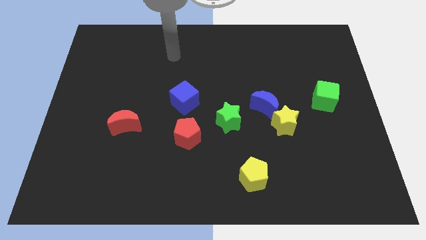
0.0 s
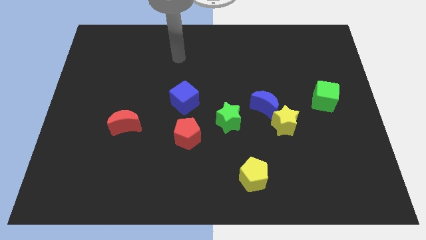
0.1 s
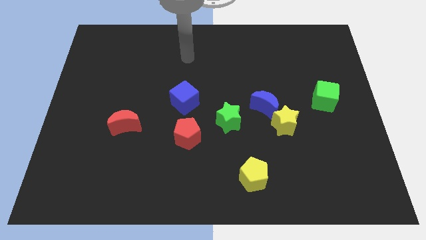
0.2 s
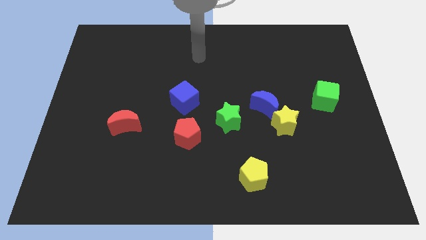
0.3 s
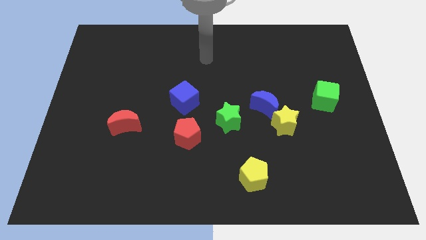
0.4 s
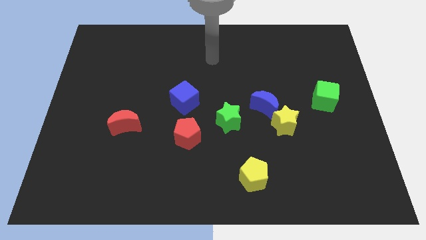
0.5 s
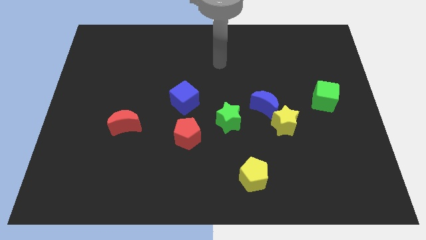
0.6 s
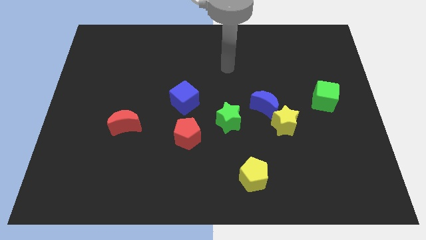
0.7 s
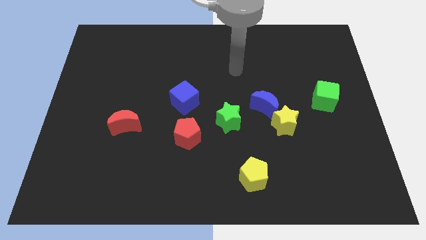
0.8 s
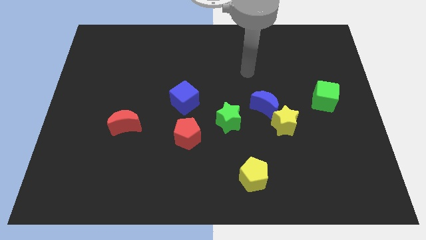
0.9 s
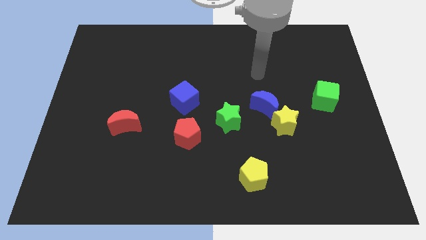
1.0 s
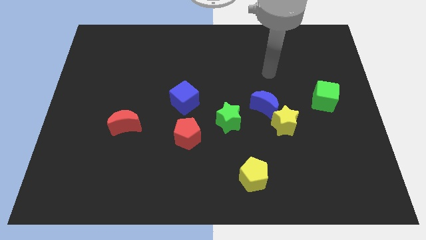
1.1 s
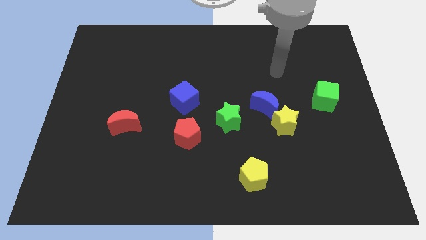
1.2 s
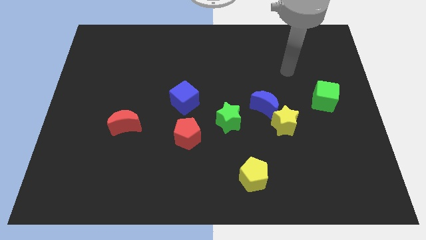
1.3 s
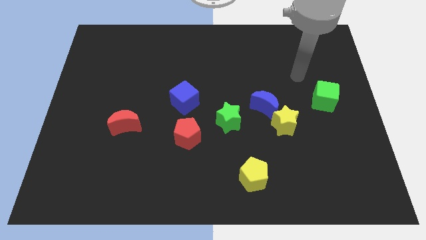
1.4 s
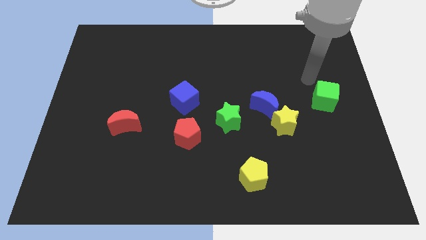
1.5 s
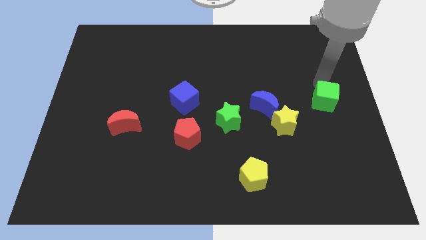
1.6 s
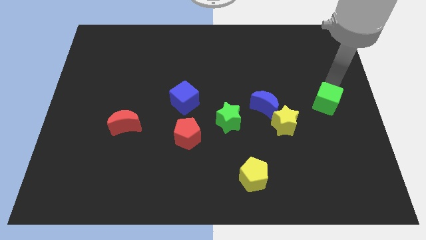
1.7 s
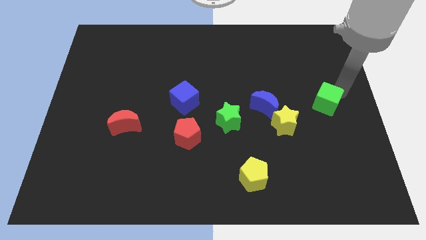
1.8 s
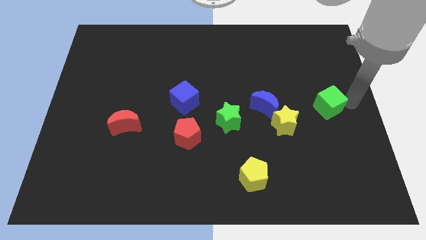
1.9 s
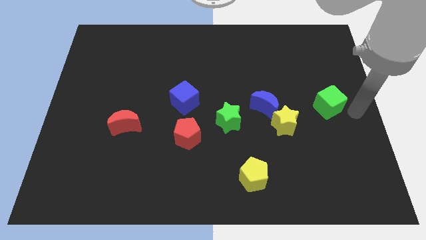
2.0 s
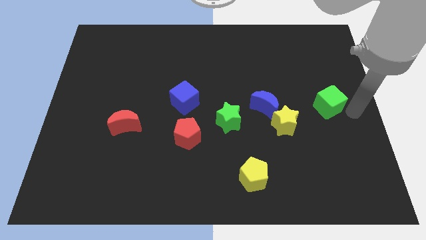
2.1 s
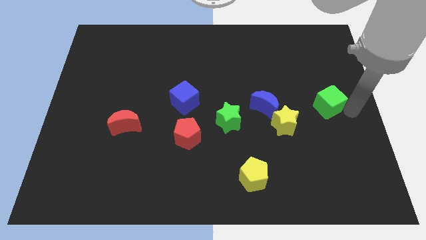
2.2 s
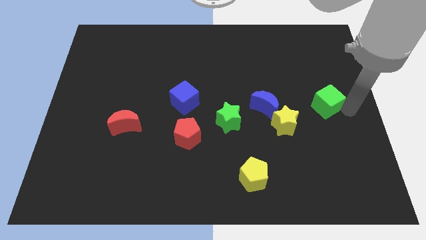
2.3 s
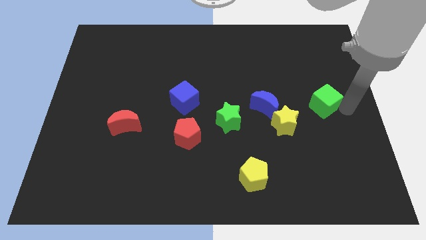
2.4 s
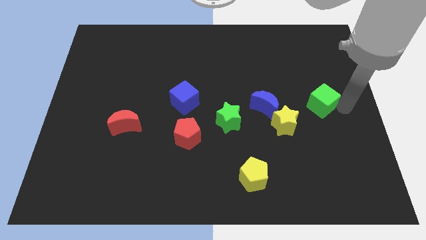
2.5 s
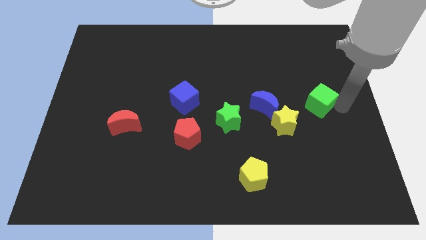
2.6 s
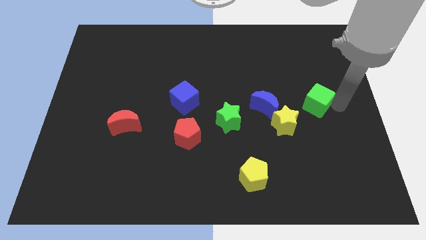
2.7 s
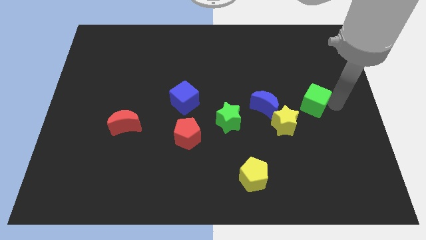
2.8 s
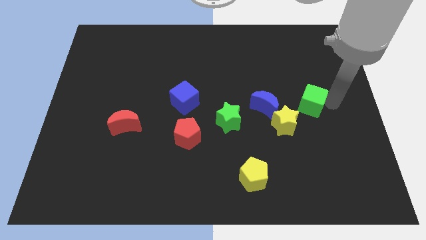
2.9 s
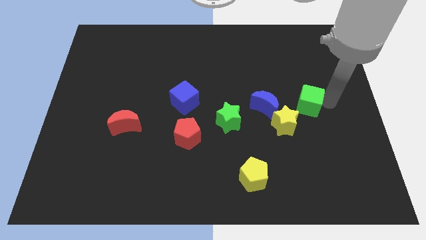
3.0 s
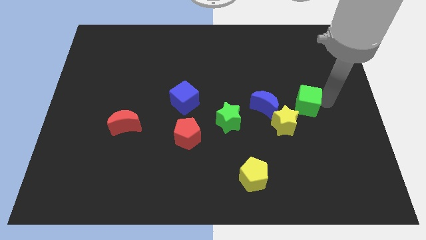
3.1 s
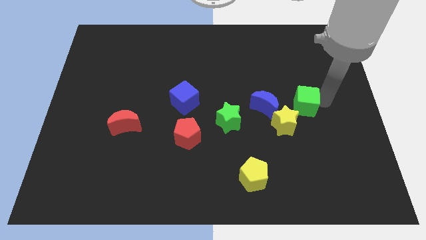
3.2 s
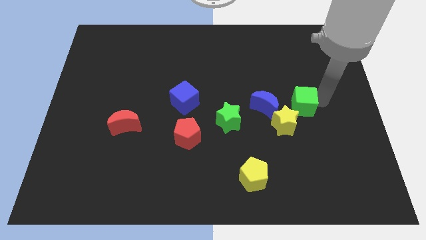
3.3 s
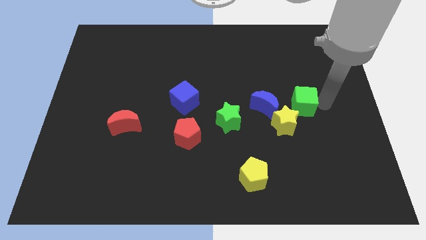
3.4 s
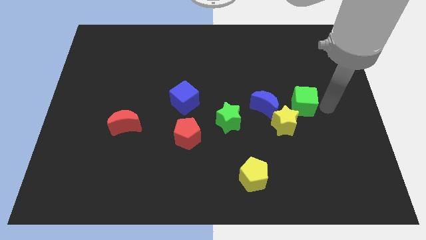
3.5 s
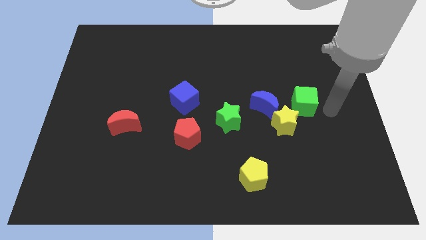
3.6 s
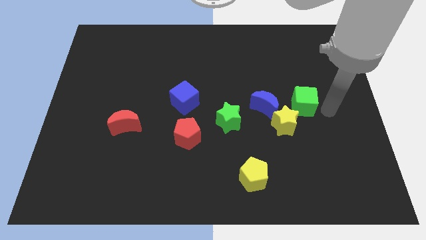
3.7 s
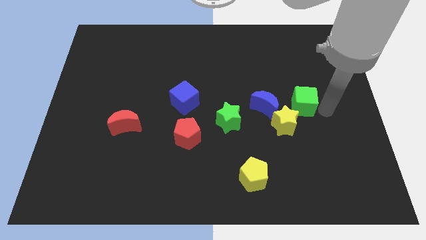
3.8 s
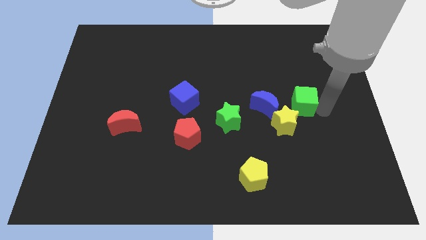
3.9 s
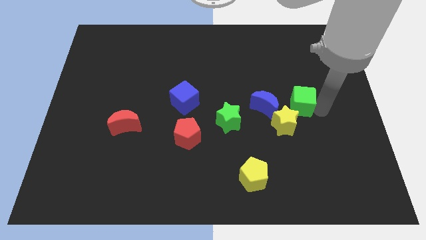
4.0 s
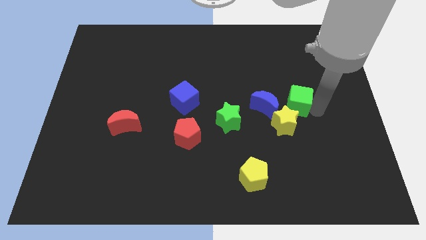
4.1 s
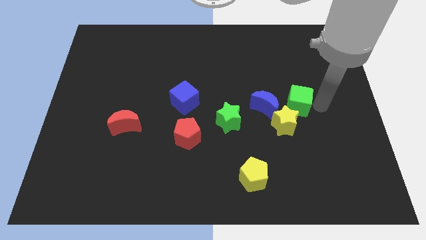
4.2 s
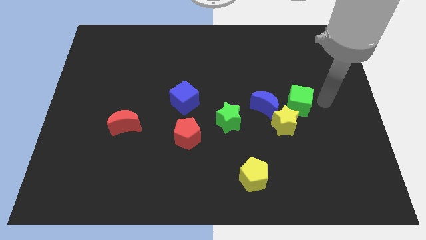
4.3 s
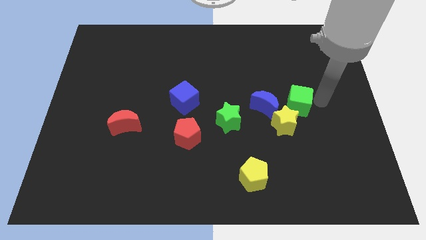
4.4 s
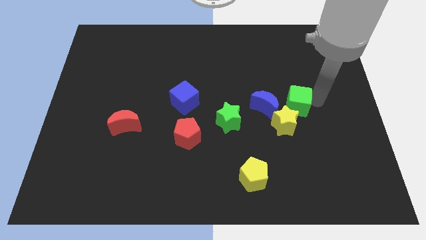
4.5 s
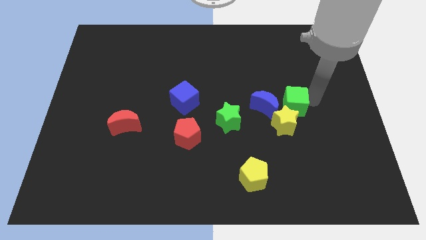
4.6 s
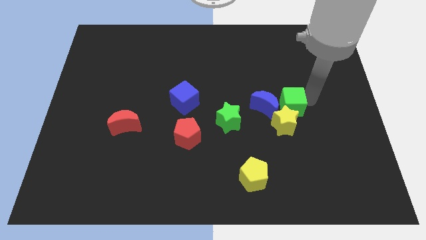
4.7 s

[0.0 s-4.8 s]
move the green cube next to the blue moon

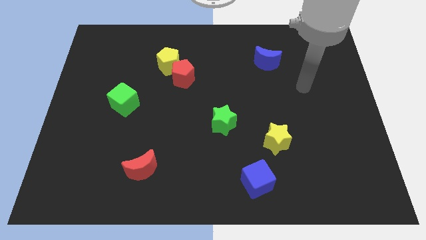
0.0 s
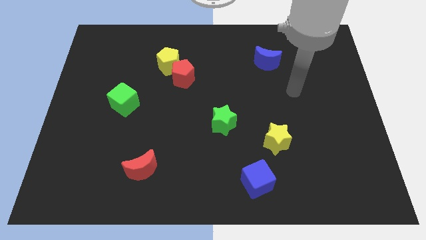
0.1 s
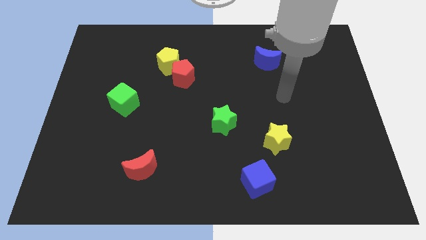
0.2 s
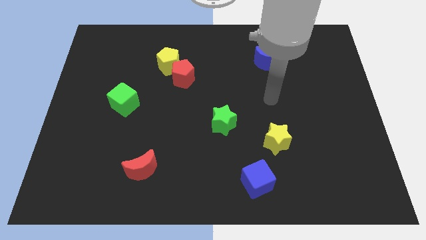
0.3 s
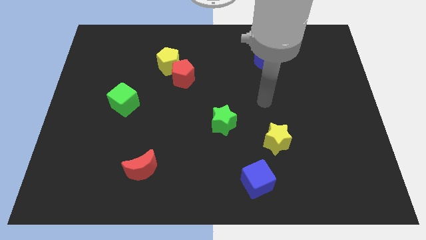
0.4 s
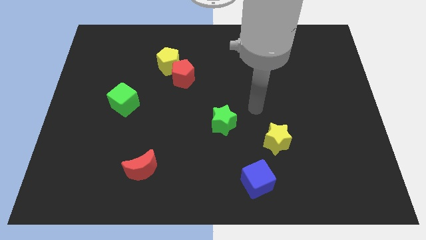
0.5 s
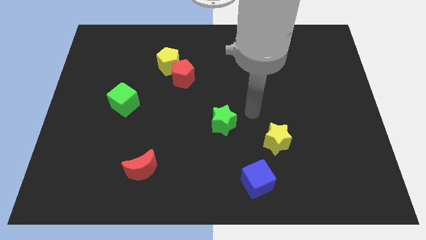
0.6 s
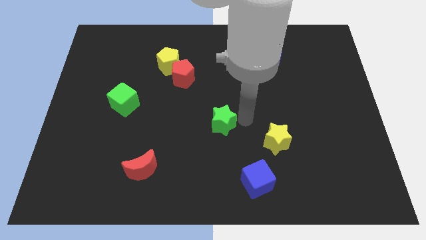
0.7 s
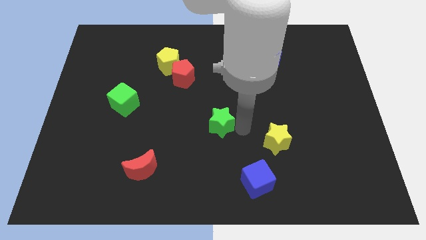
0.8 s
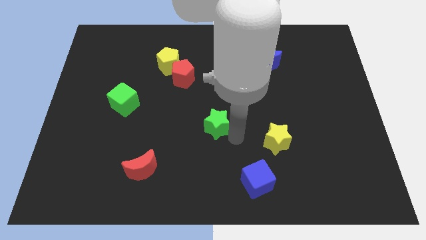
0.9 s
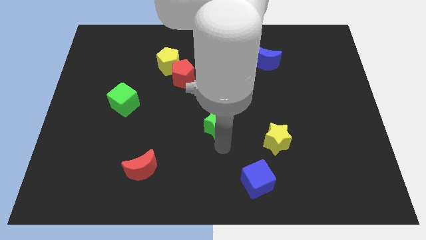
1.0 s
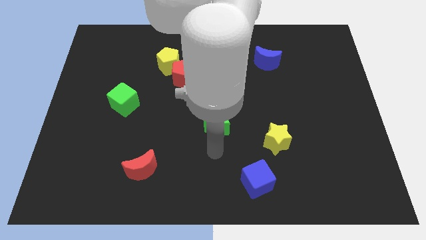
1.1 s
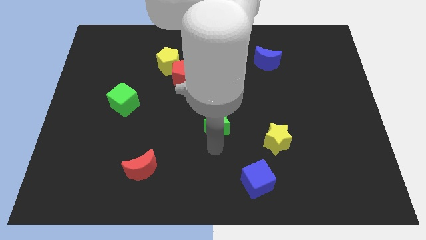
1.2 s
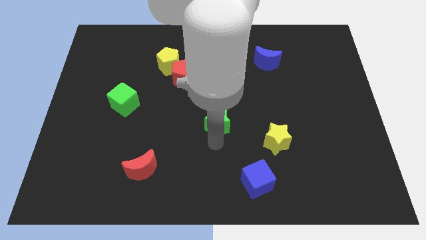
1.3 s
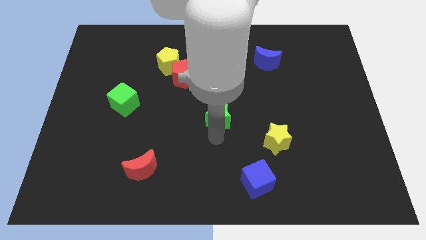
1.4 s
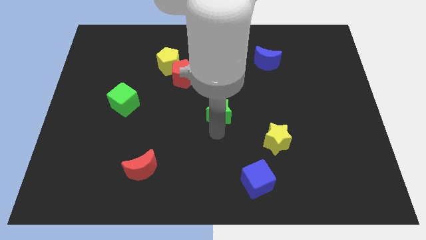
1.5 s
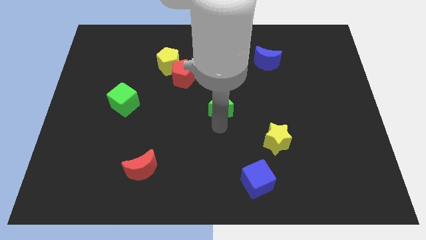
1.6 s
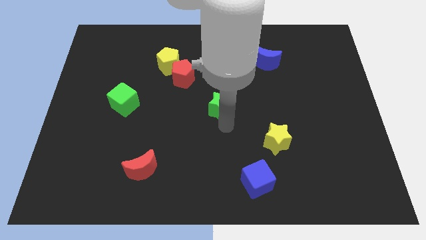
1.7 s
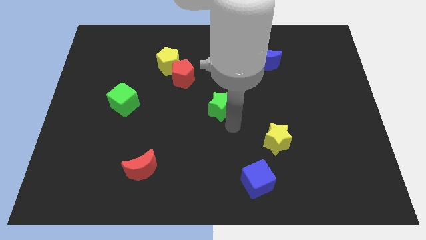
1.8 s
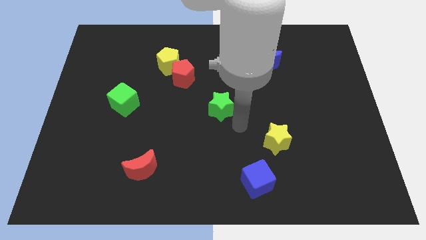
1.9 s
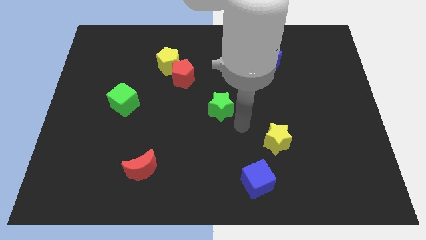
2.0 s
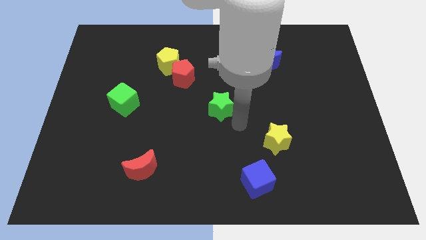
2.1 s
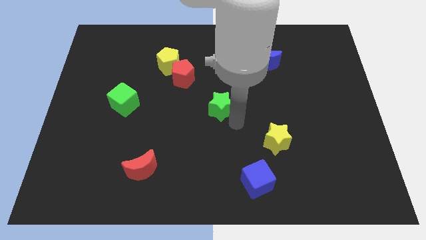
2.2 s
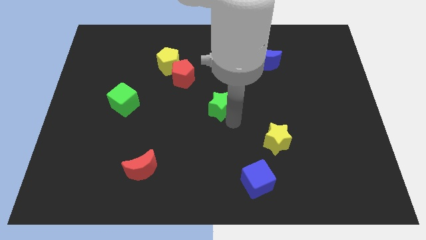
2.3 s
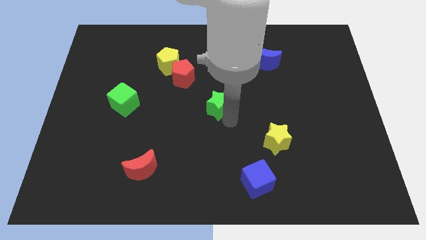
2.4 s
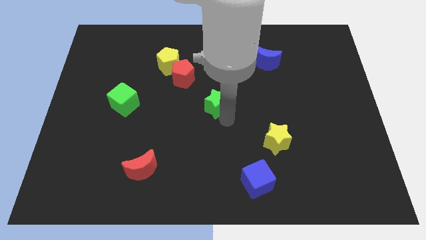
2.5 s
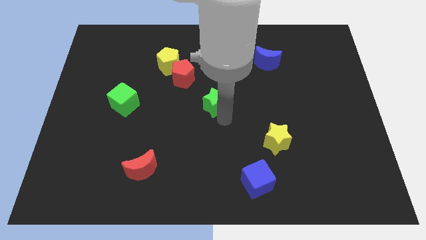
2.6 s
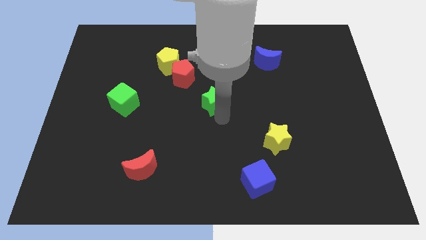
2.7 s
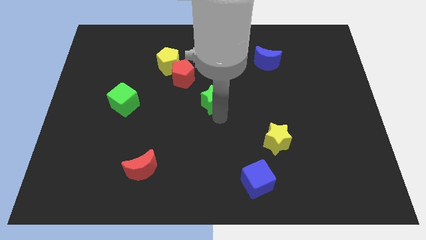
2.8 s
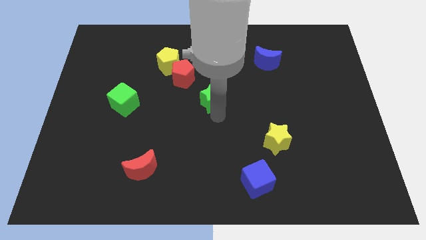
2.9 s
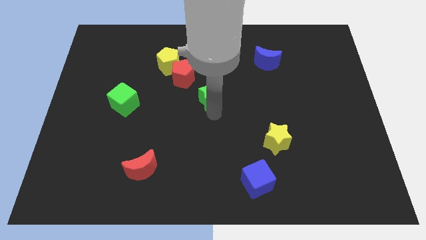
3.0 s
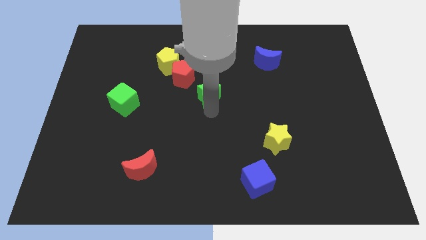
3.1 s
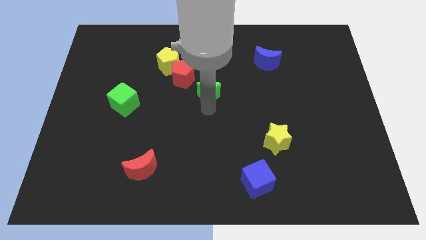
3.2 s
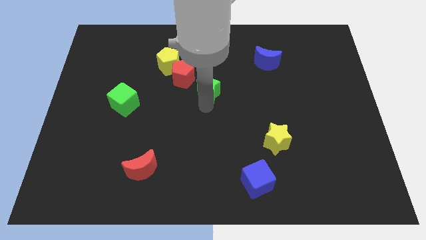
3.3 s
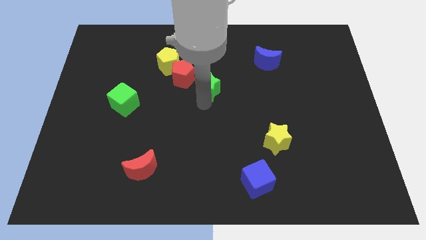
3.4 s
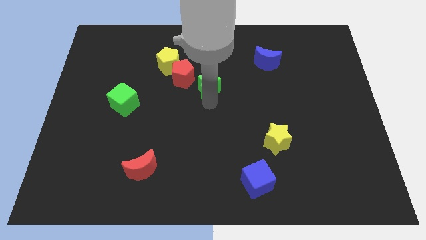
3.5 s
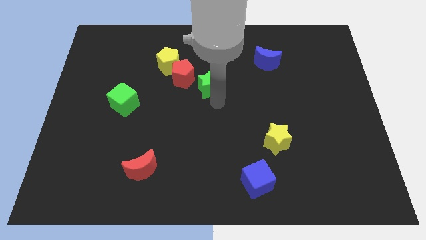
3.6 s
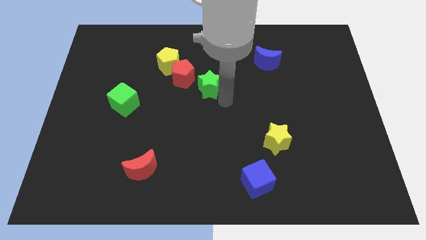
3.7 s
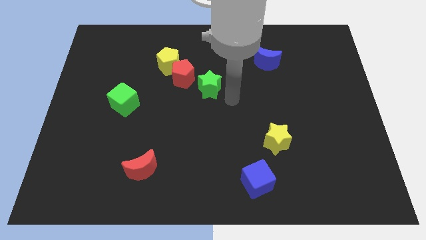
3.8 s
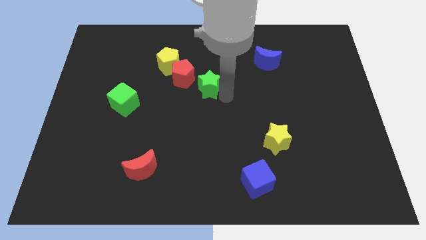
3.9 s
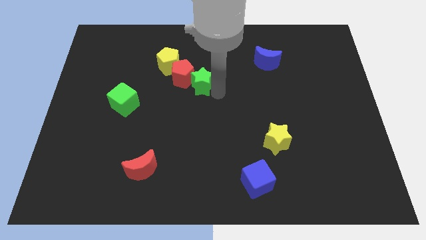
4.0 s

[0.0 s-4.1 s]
push the green star next to the red pentagon

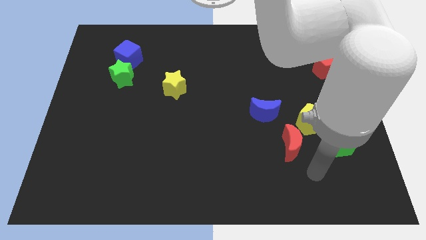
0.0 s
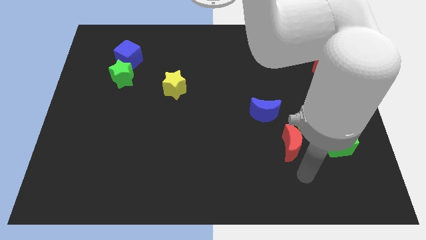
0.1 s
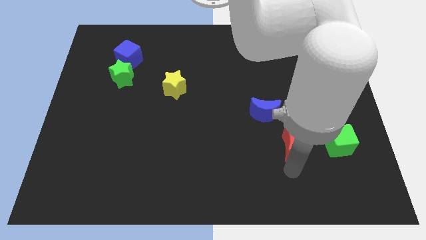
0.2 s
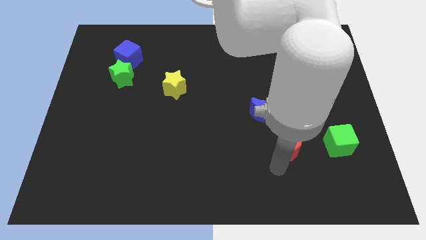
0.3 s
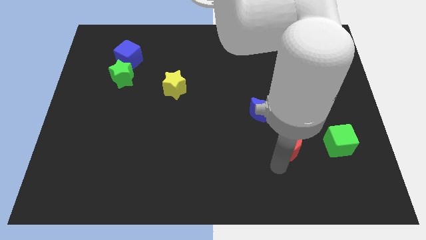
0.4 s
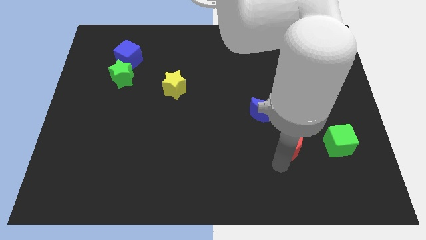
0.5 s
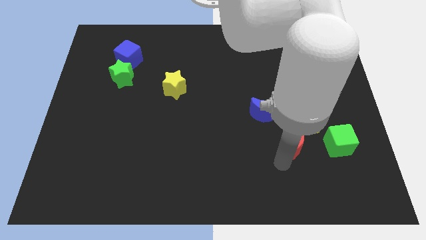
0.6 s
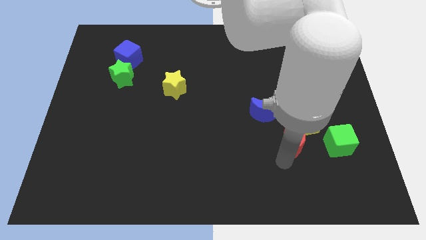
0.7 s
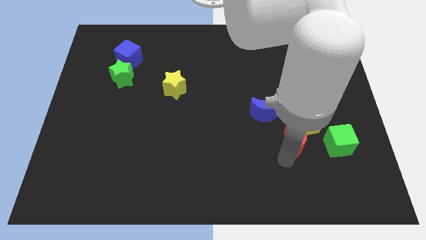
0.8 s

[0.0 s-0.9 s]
move the red moon towards the yellow pentagon
